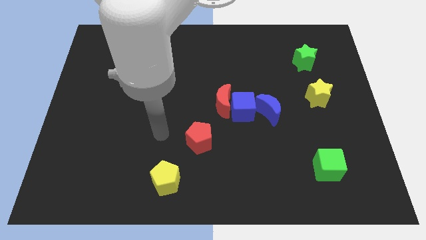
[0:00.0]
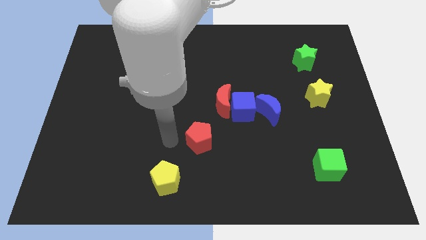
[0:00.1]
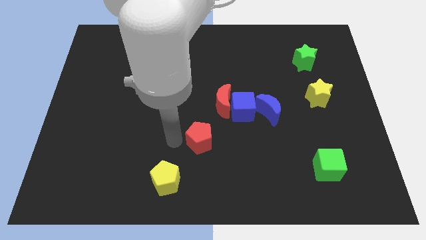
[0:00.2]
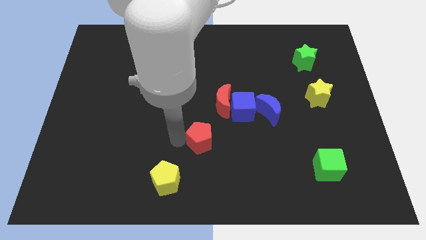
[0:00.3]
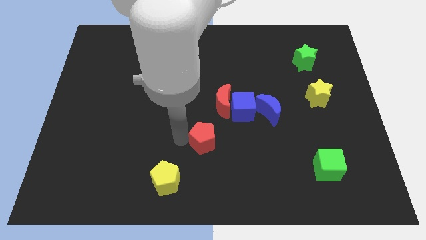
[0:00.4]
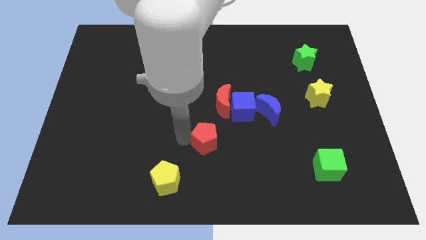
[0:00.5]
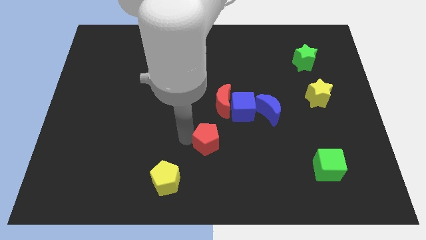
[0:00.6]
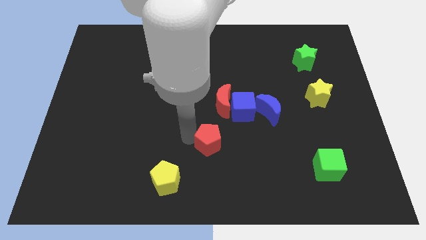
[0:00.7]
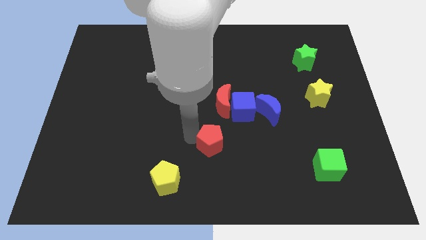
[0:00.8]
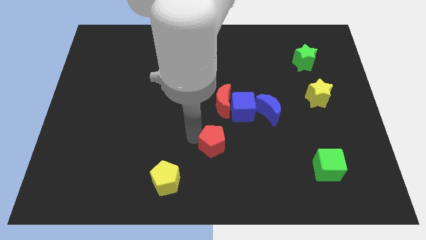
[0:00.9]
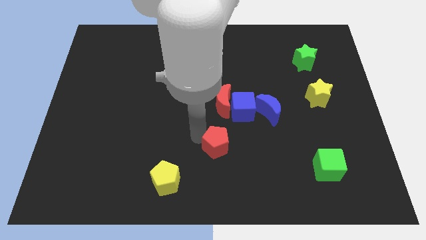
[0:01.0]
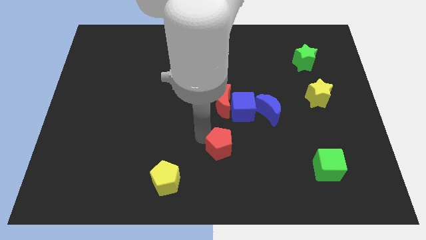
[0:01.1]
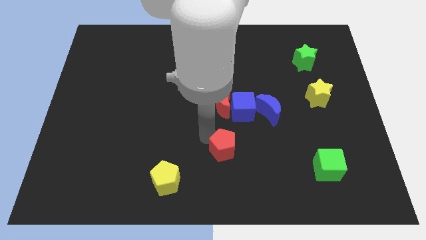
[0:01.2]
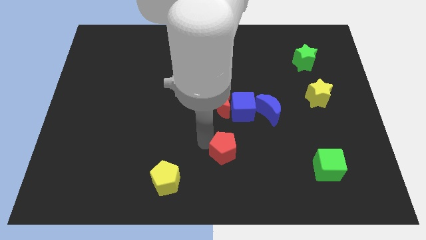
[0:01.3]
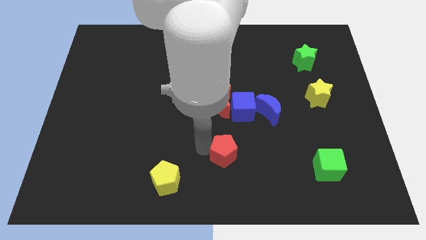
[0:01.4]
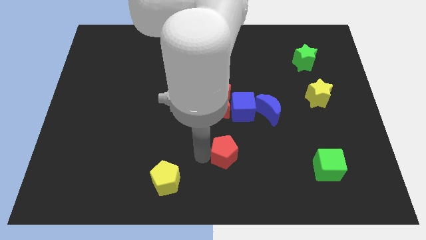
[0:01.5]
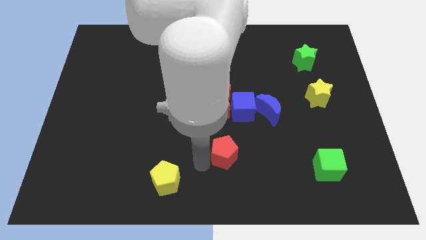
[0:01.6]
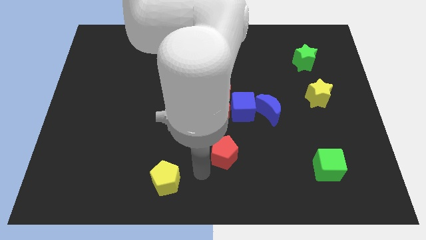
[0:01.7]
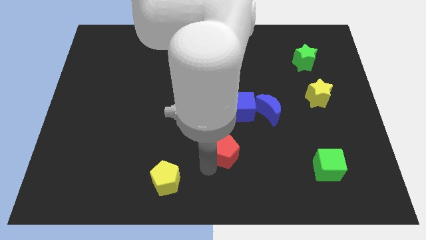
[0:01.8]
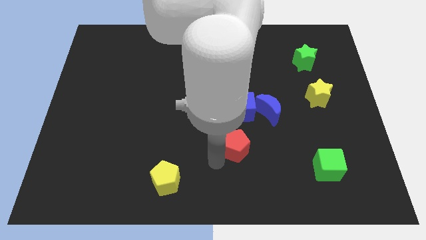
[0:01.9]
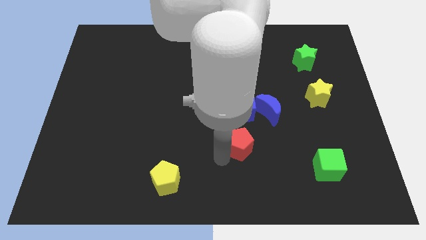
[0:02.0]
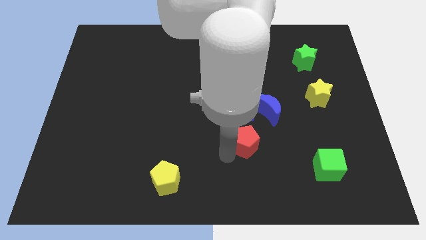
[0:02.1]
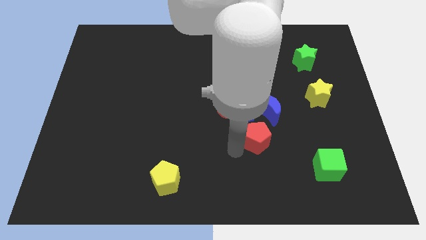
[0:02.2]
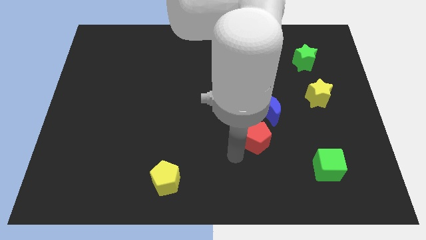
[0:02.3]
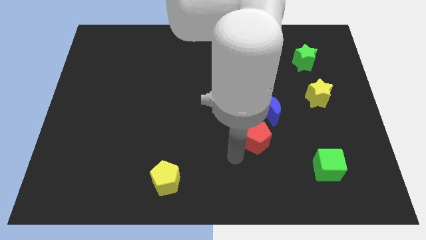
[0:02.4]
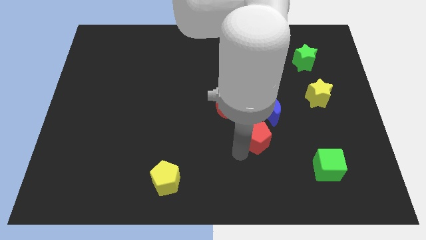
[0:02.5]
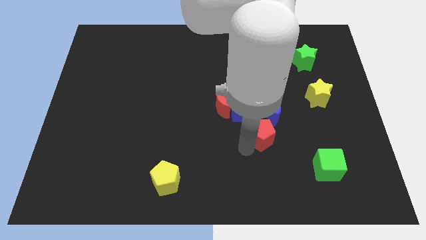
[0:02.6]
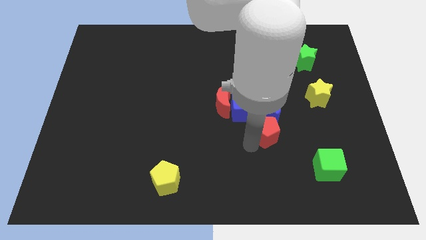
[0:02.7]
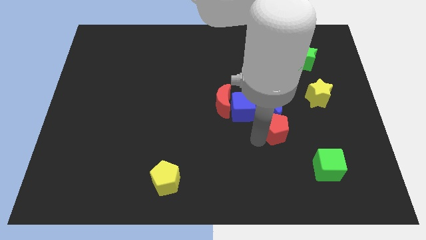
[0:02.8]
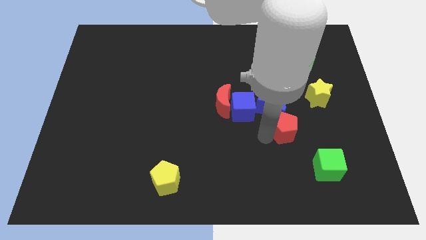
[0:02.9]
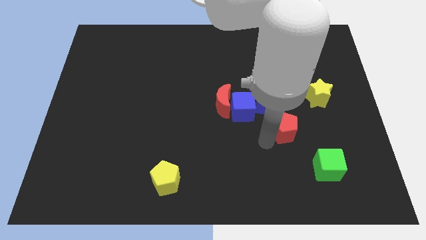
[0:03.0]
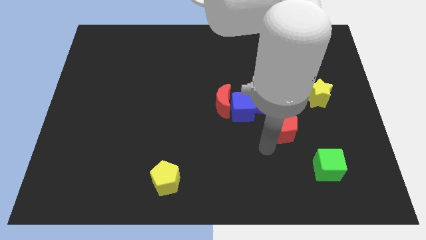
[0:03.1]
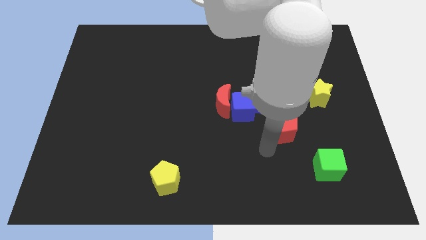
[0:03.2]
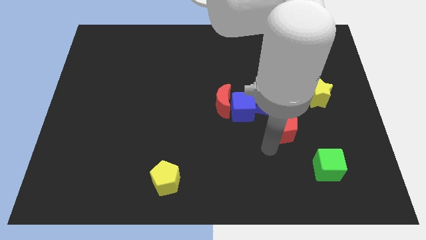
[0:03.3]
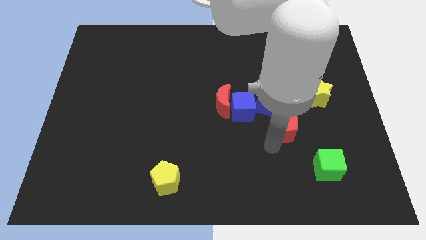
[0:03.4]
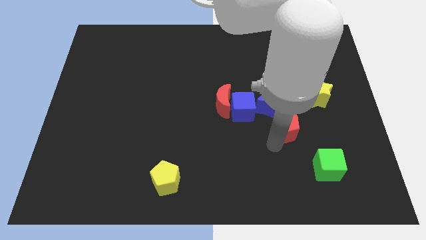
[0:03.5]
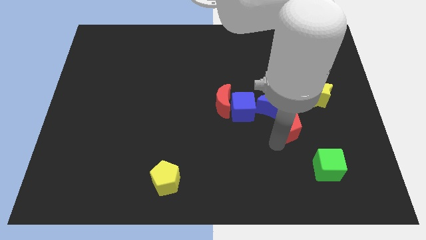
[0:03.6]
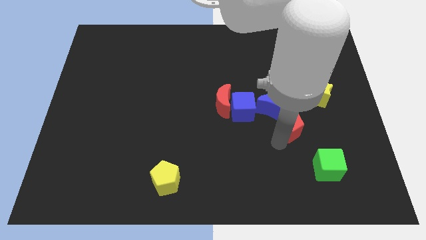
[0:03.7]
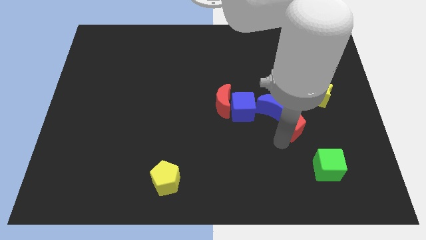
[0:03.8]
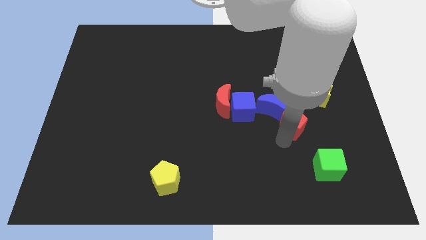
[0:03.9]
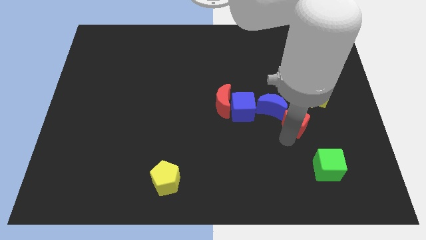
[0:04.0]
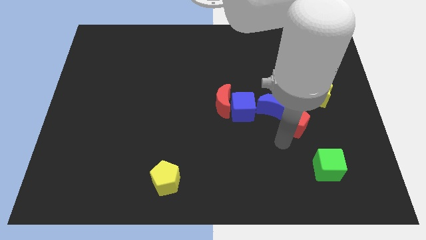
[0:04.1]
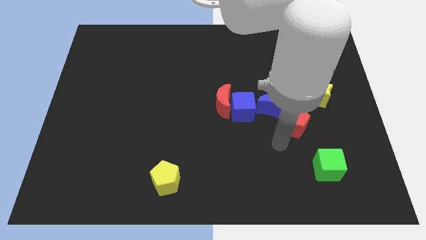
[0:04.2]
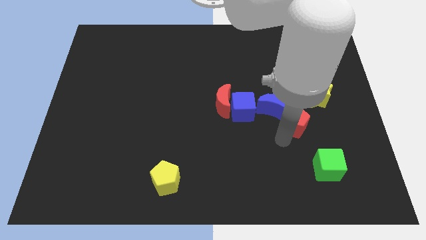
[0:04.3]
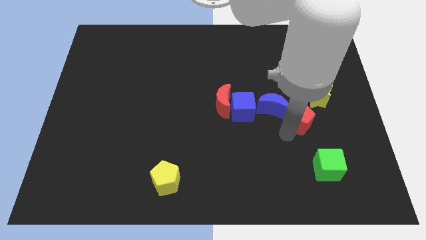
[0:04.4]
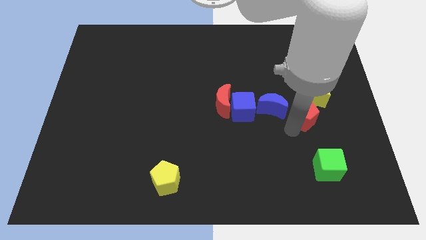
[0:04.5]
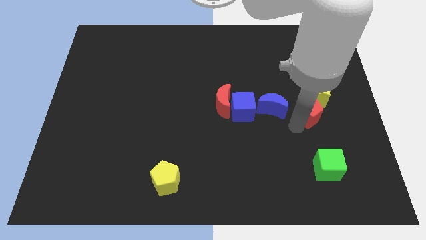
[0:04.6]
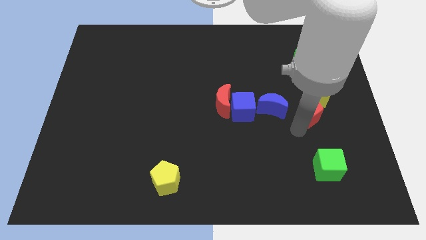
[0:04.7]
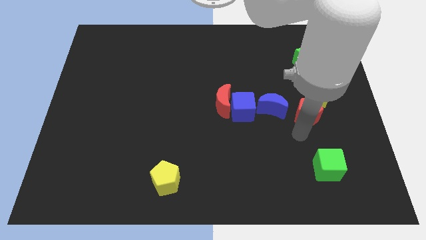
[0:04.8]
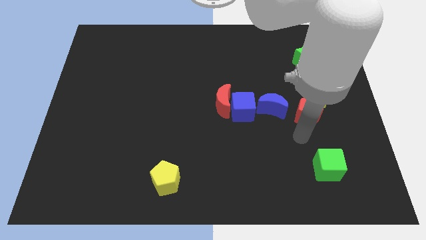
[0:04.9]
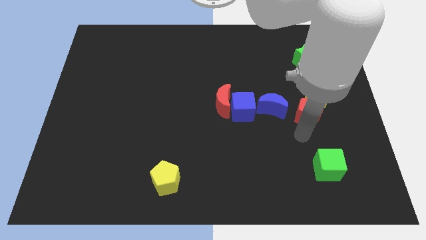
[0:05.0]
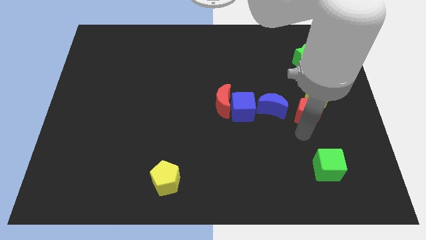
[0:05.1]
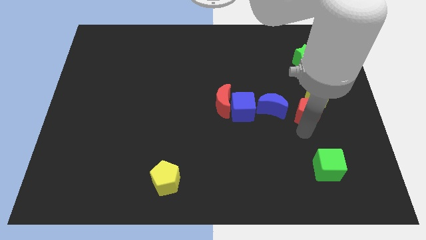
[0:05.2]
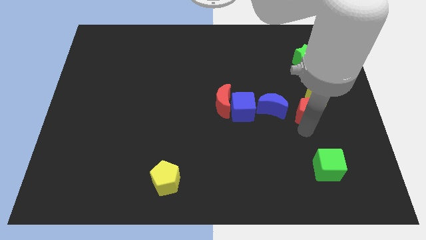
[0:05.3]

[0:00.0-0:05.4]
move the red pentagon towards the yellow star

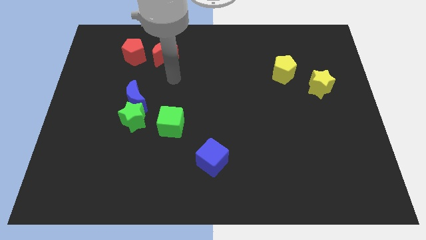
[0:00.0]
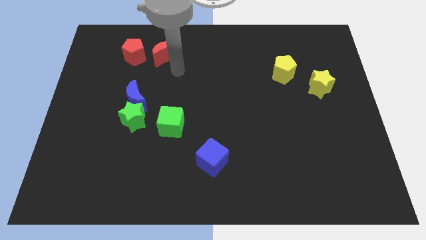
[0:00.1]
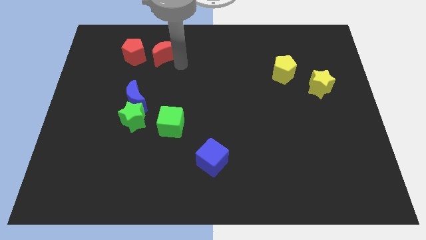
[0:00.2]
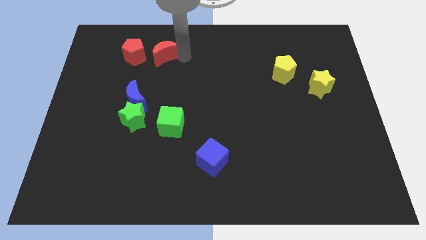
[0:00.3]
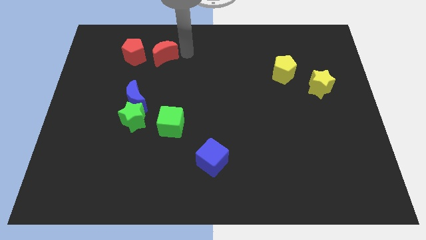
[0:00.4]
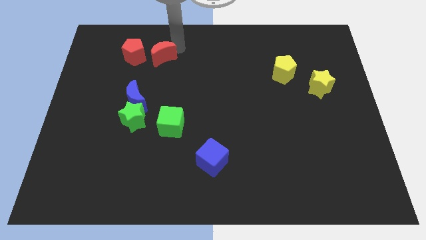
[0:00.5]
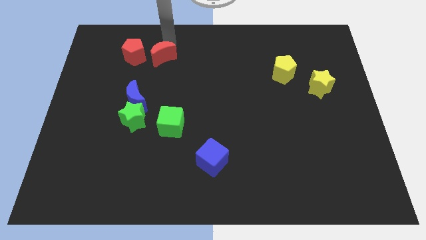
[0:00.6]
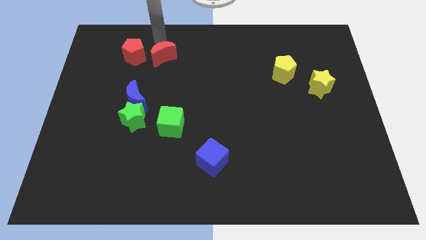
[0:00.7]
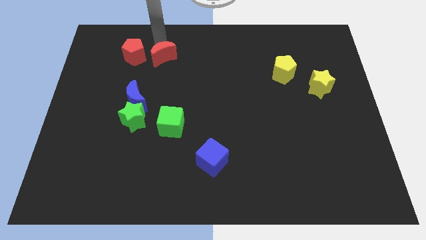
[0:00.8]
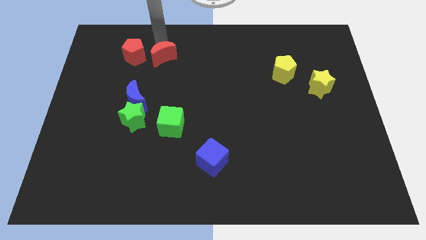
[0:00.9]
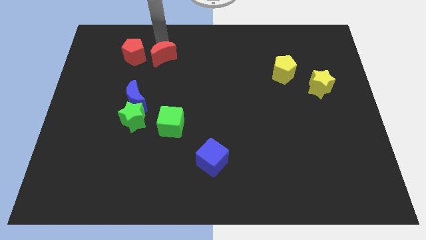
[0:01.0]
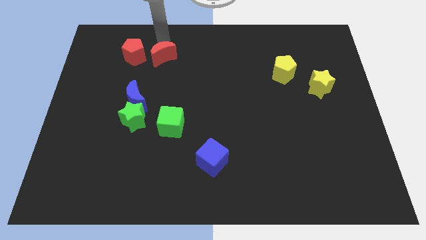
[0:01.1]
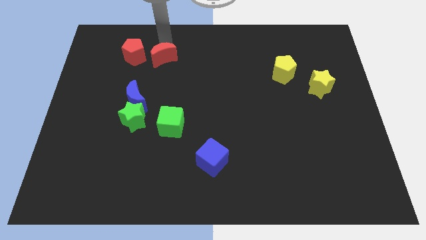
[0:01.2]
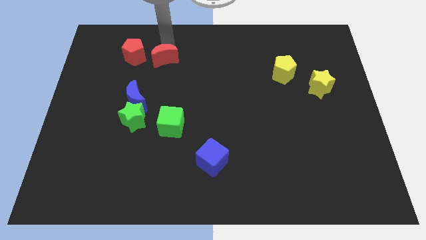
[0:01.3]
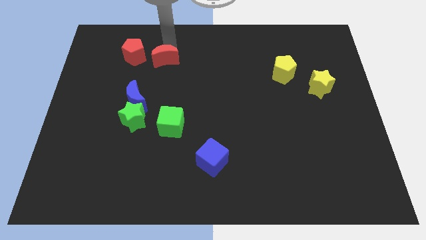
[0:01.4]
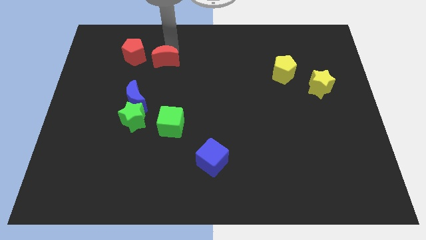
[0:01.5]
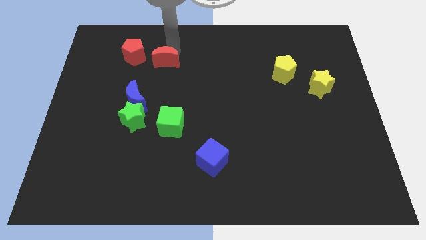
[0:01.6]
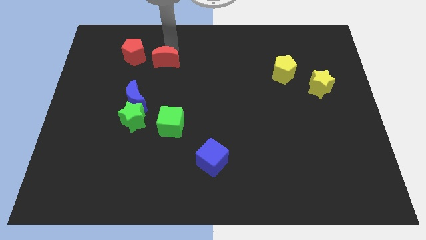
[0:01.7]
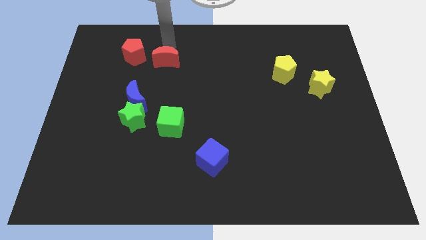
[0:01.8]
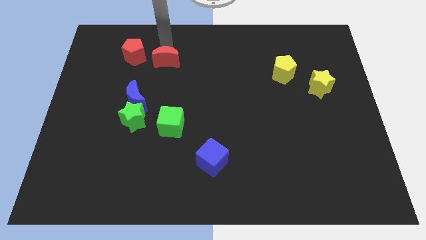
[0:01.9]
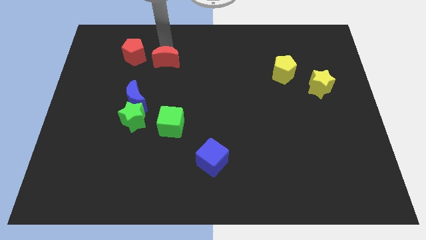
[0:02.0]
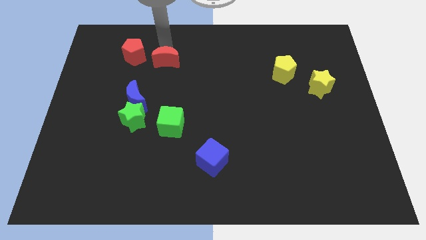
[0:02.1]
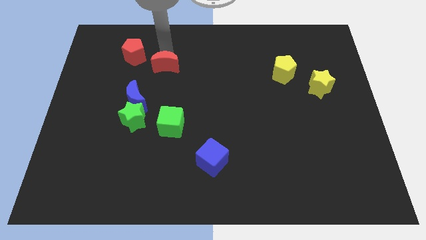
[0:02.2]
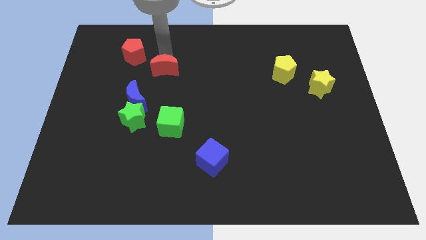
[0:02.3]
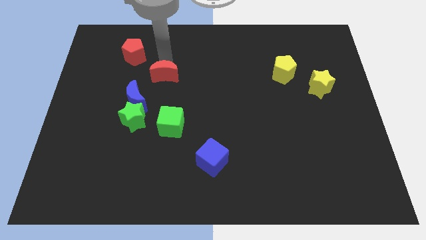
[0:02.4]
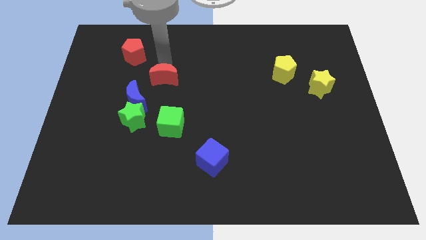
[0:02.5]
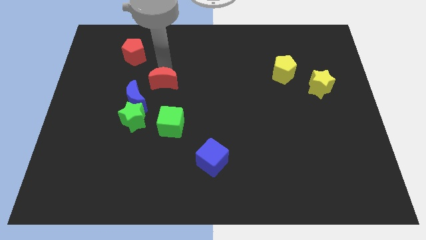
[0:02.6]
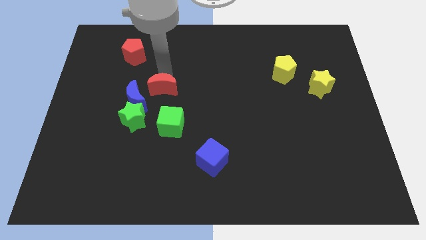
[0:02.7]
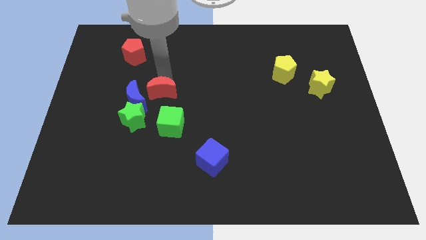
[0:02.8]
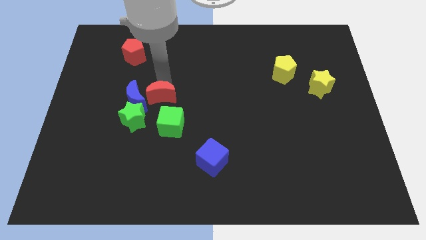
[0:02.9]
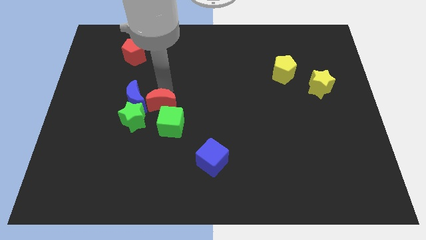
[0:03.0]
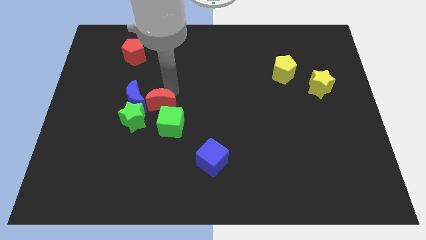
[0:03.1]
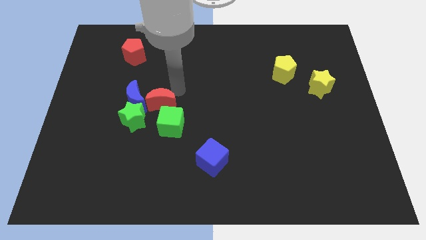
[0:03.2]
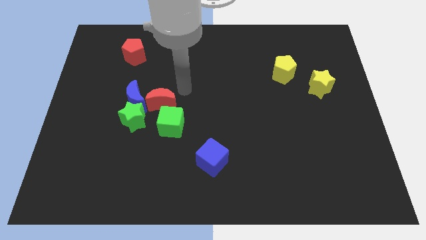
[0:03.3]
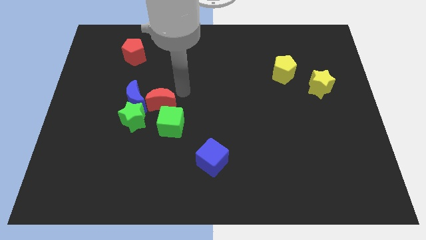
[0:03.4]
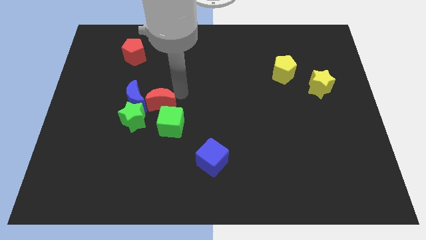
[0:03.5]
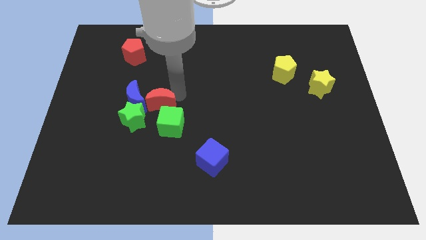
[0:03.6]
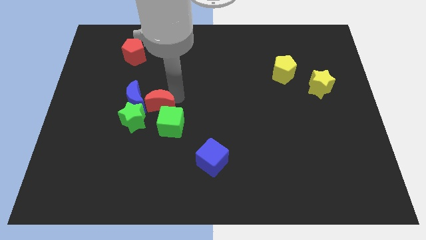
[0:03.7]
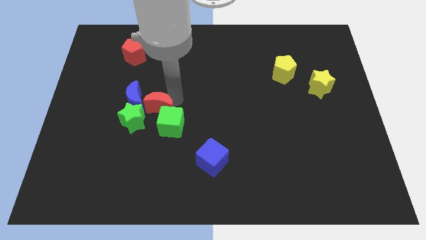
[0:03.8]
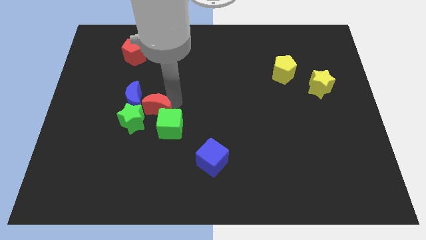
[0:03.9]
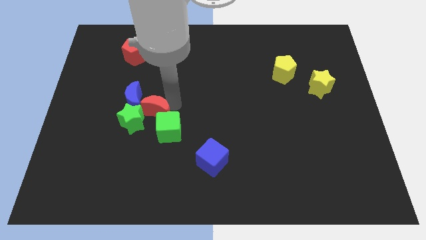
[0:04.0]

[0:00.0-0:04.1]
slide the red moon close to the green star
